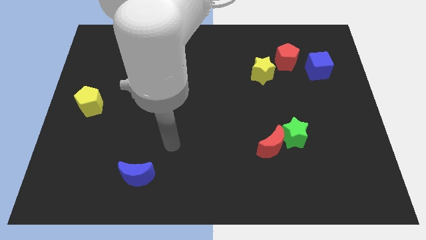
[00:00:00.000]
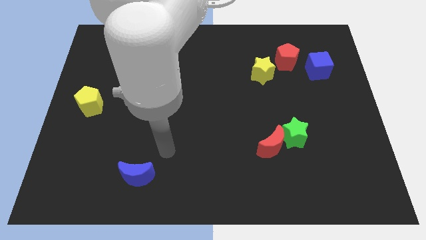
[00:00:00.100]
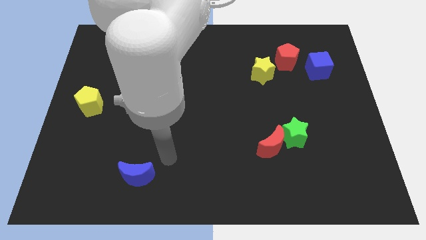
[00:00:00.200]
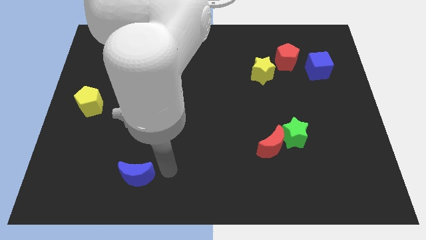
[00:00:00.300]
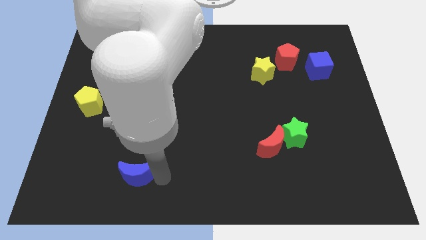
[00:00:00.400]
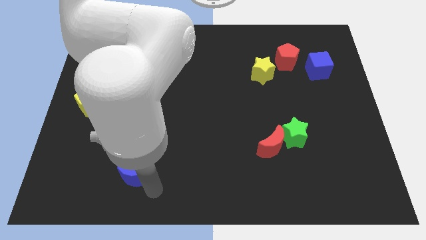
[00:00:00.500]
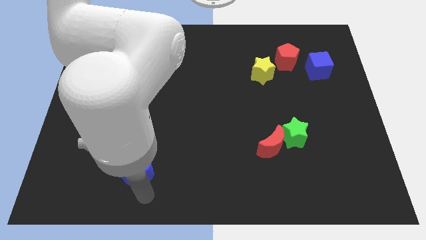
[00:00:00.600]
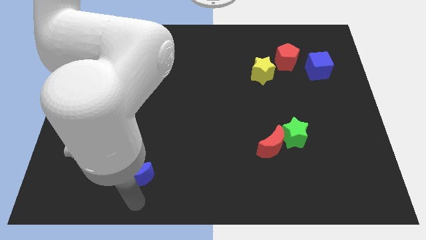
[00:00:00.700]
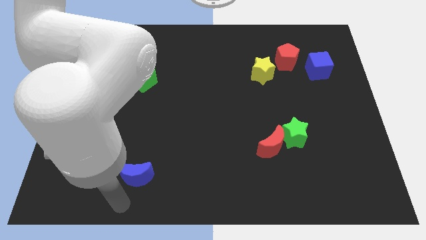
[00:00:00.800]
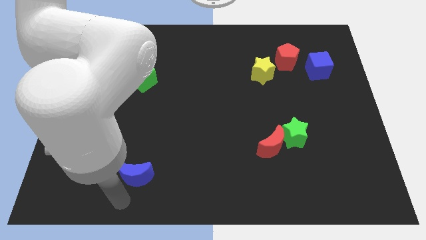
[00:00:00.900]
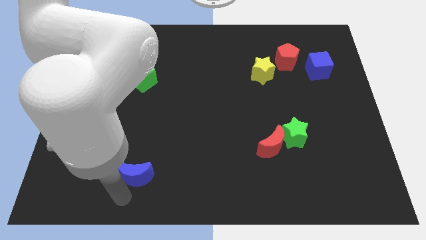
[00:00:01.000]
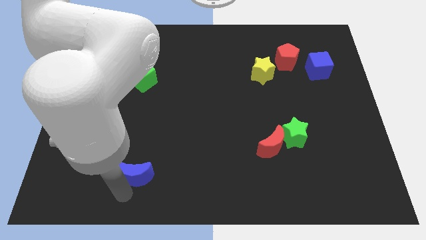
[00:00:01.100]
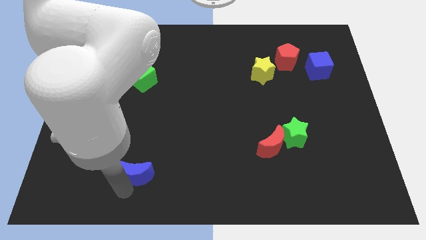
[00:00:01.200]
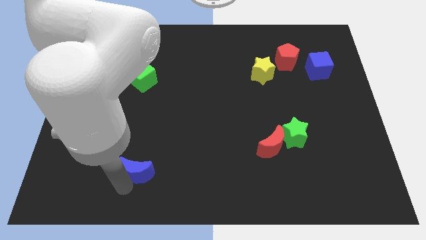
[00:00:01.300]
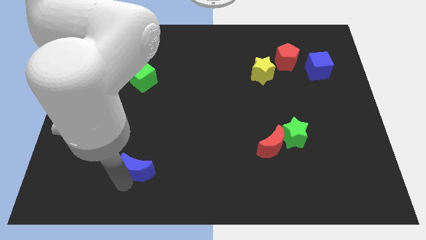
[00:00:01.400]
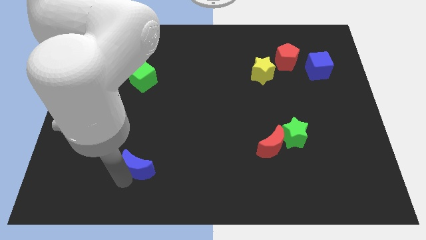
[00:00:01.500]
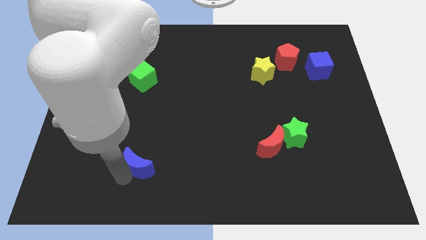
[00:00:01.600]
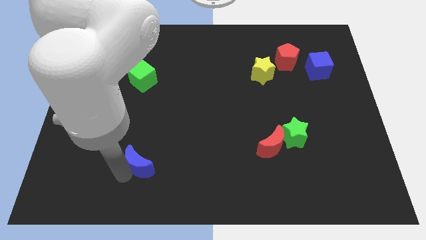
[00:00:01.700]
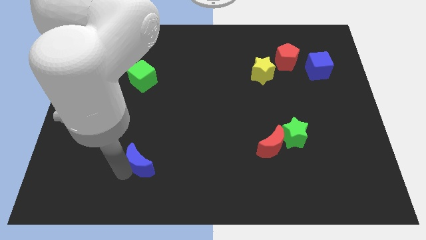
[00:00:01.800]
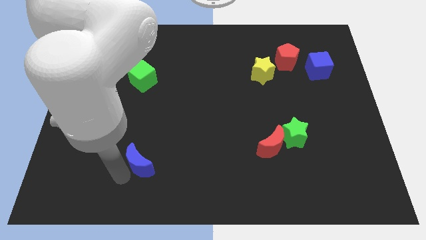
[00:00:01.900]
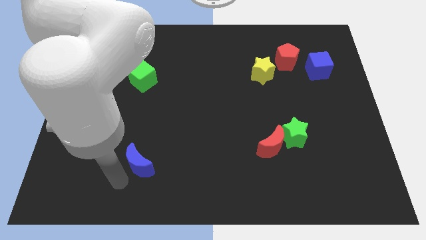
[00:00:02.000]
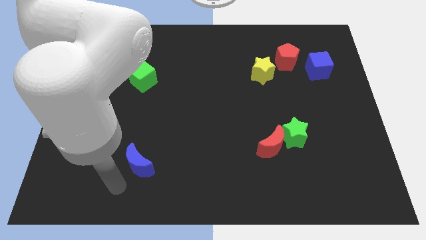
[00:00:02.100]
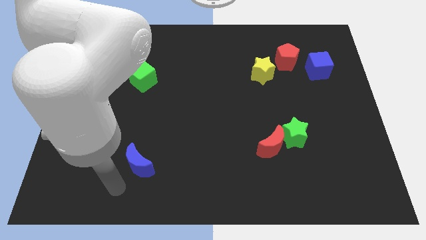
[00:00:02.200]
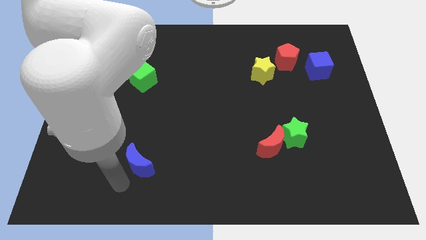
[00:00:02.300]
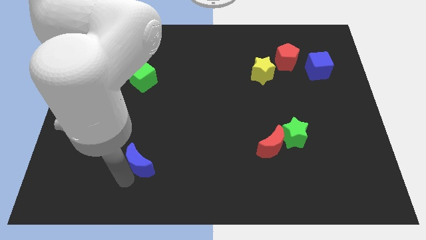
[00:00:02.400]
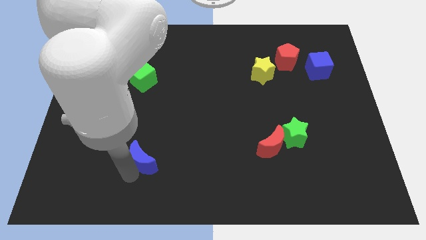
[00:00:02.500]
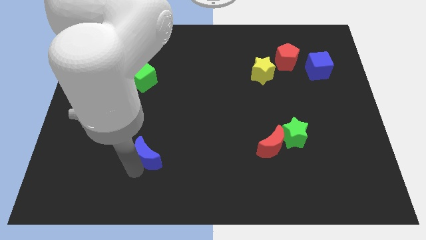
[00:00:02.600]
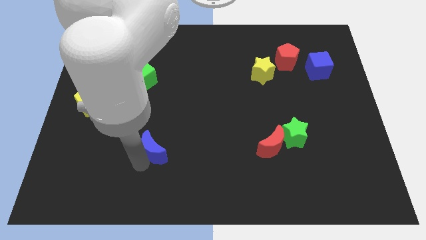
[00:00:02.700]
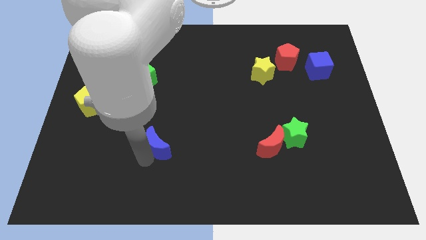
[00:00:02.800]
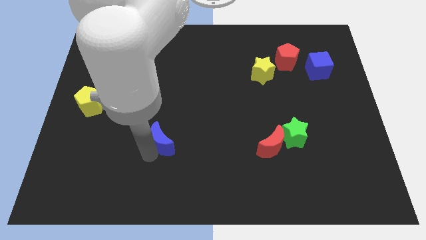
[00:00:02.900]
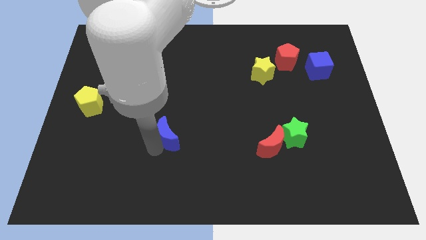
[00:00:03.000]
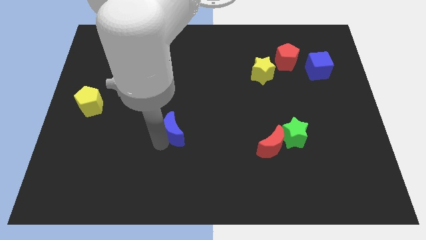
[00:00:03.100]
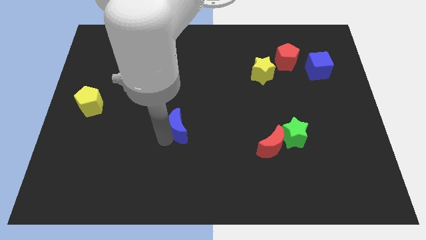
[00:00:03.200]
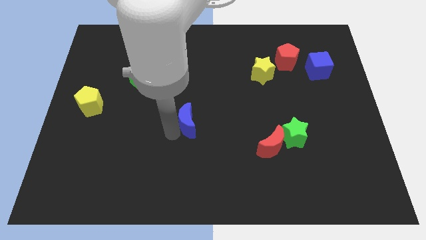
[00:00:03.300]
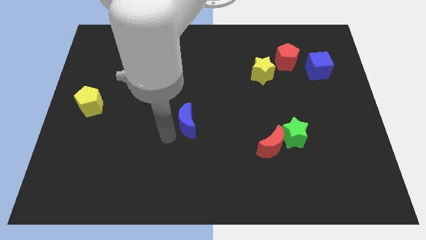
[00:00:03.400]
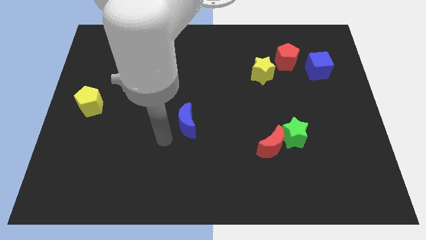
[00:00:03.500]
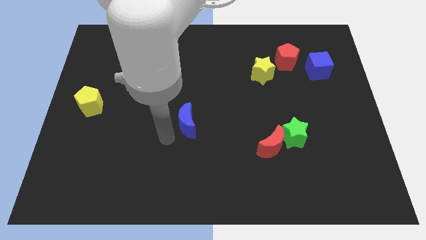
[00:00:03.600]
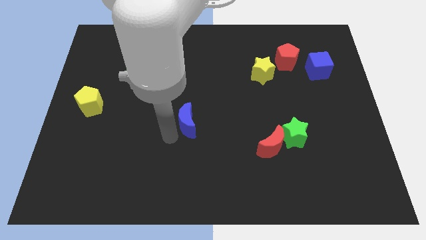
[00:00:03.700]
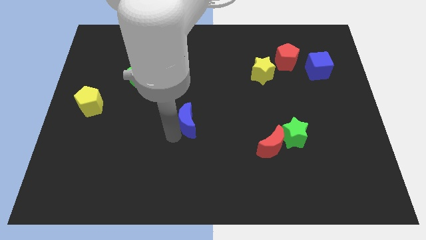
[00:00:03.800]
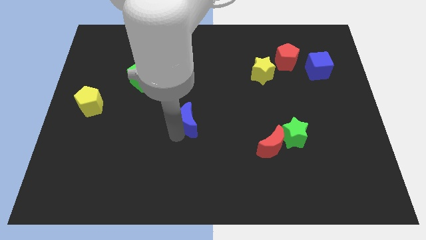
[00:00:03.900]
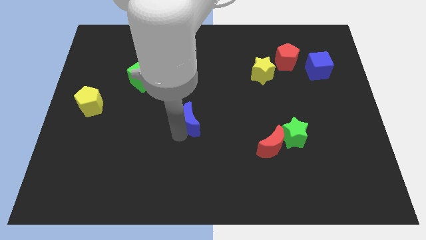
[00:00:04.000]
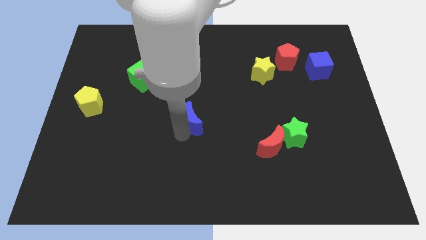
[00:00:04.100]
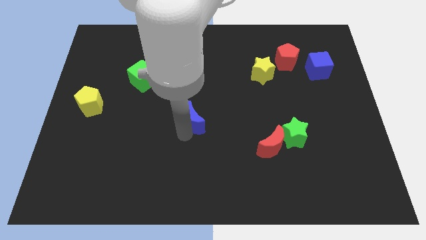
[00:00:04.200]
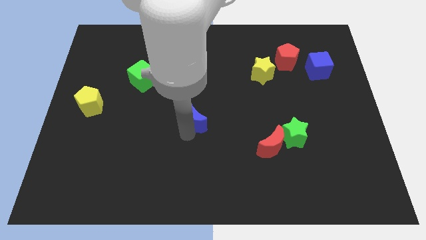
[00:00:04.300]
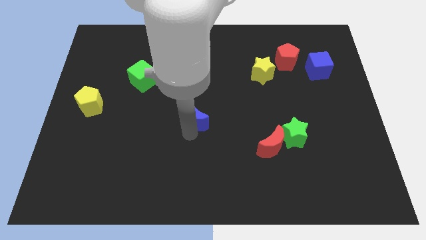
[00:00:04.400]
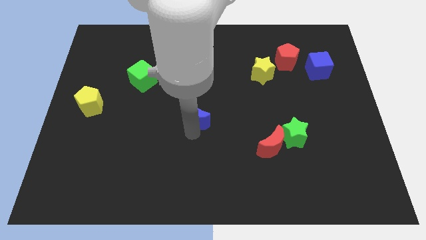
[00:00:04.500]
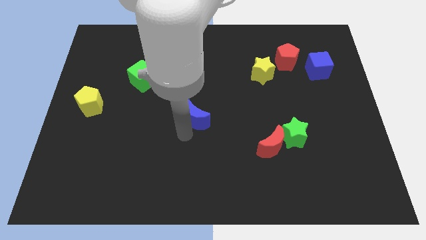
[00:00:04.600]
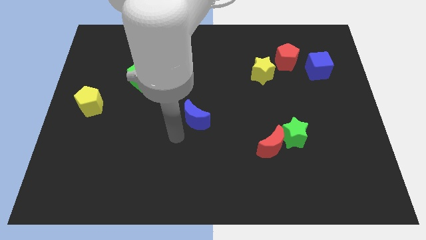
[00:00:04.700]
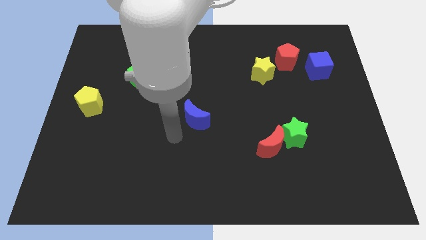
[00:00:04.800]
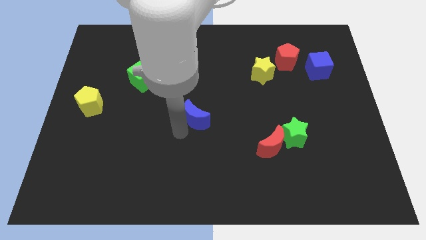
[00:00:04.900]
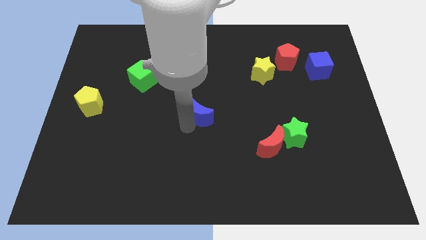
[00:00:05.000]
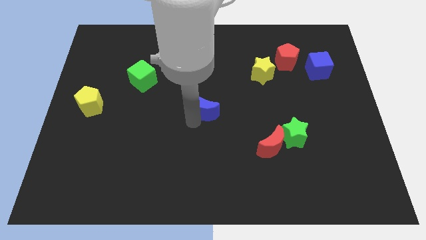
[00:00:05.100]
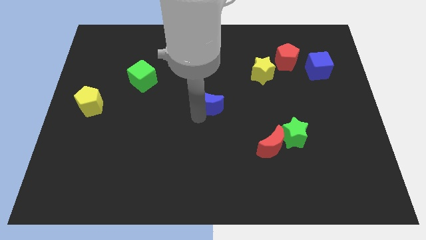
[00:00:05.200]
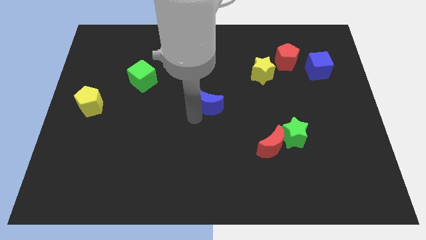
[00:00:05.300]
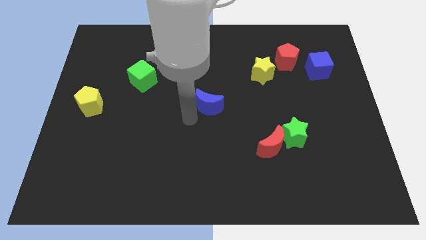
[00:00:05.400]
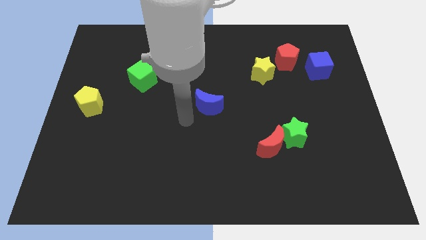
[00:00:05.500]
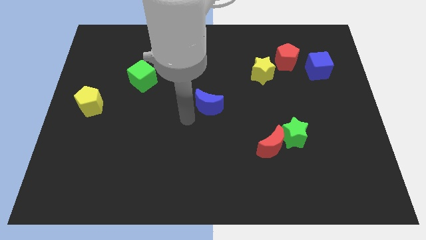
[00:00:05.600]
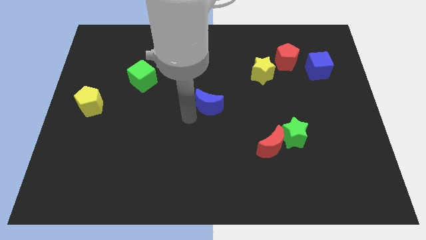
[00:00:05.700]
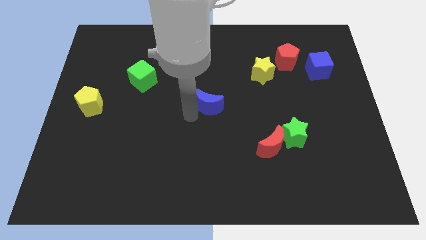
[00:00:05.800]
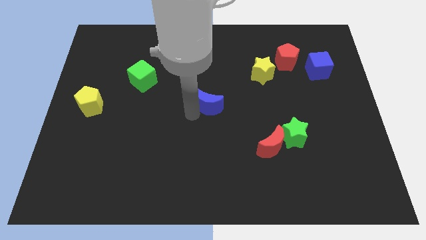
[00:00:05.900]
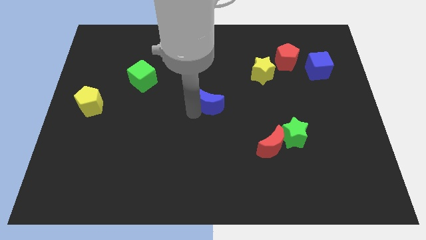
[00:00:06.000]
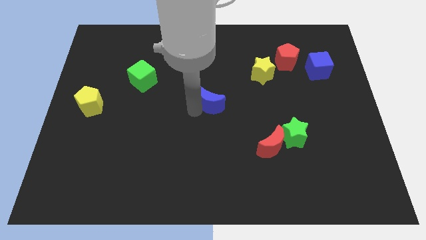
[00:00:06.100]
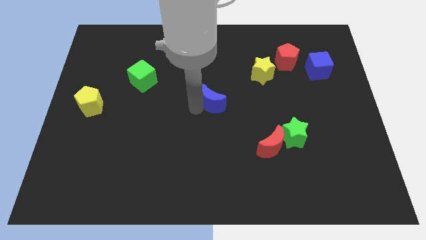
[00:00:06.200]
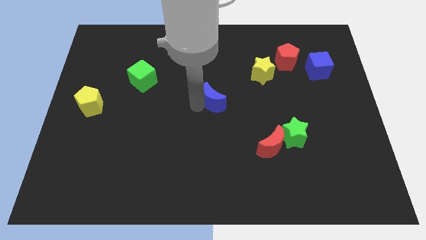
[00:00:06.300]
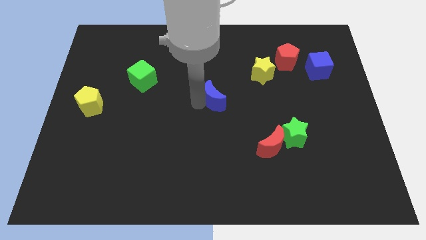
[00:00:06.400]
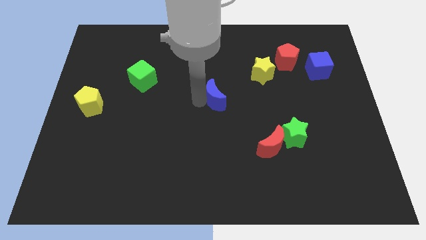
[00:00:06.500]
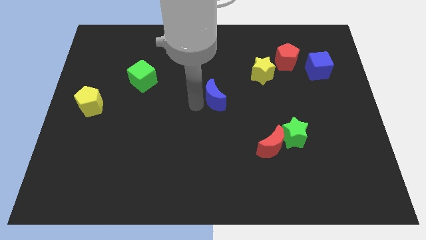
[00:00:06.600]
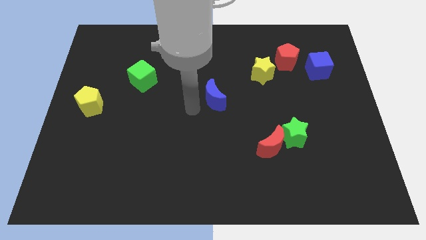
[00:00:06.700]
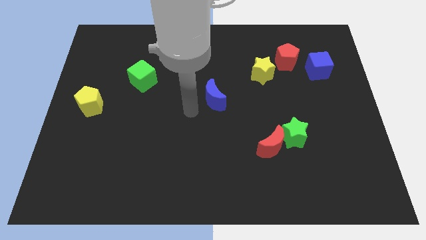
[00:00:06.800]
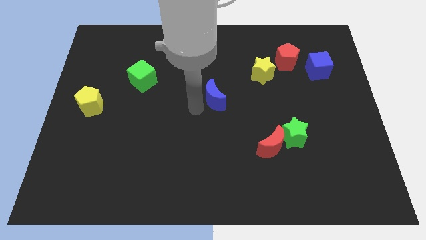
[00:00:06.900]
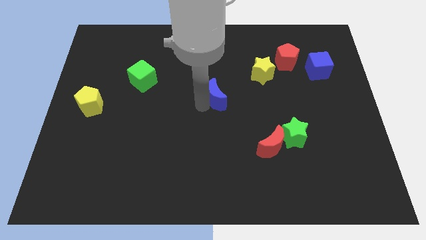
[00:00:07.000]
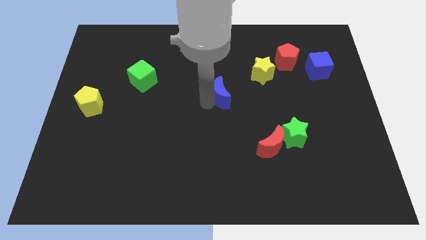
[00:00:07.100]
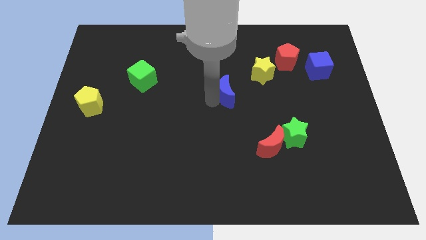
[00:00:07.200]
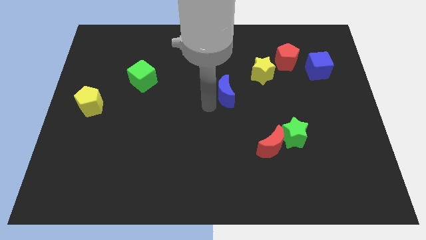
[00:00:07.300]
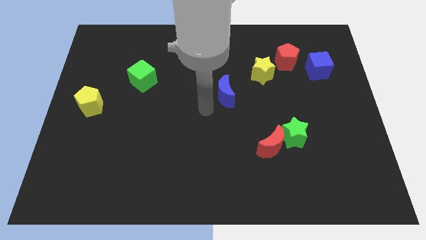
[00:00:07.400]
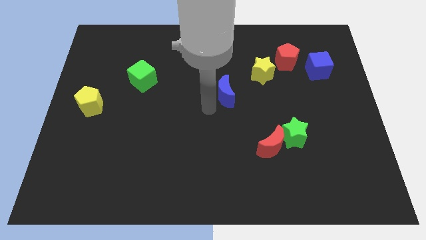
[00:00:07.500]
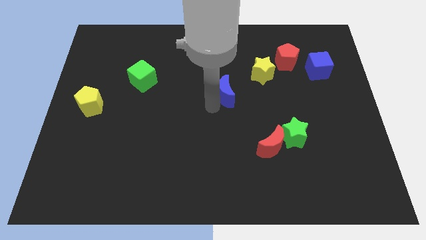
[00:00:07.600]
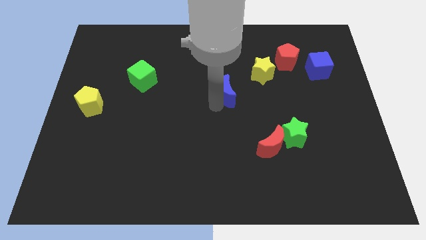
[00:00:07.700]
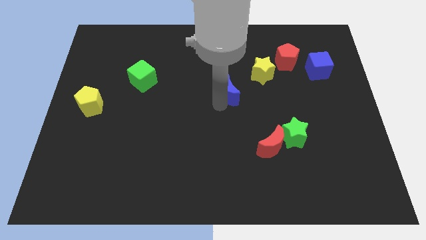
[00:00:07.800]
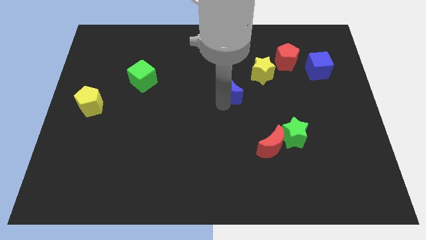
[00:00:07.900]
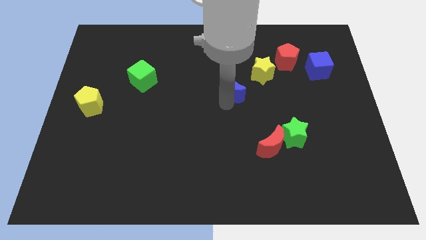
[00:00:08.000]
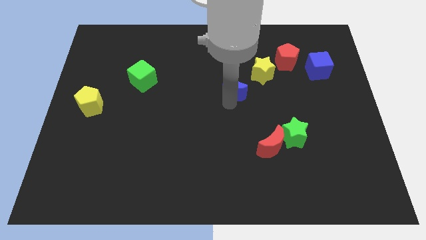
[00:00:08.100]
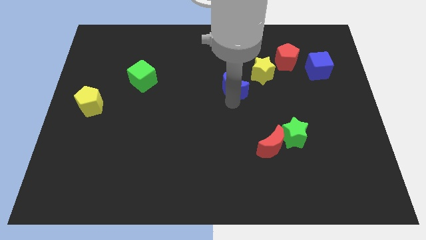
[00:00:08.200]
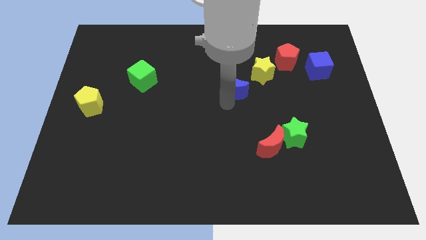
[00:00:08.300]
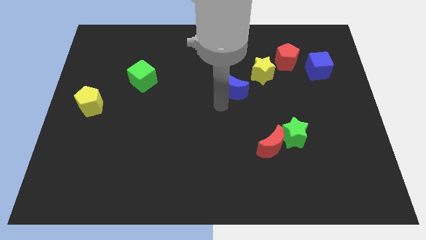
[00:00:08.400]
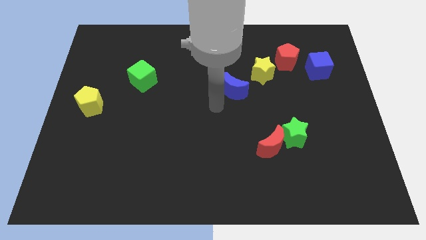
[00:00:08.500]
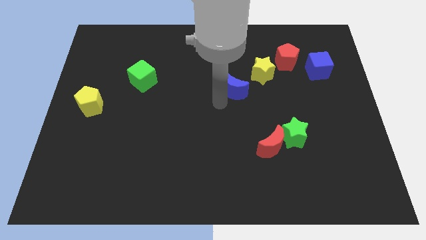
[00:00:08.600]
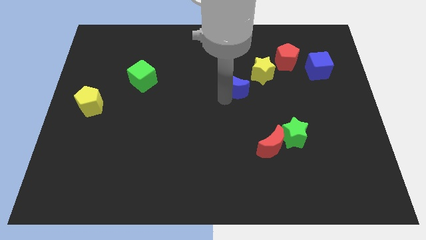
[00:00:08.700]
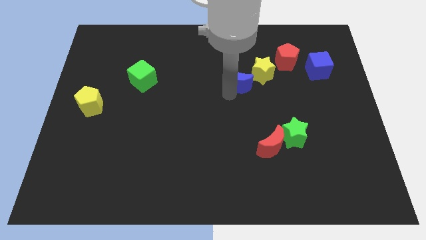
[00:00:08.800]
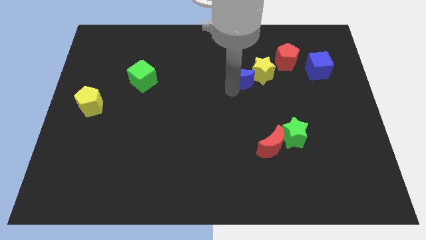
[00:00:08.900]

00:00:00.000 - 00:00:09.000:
put the blue moon close to the yellow star
